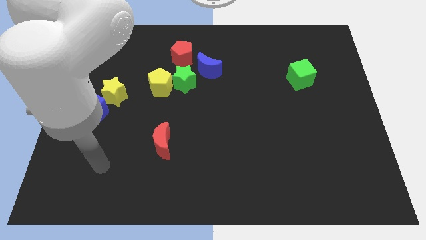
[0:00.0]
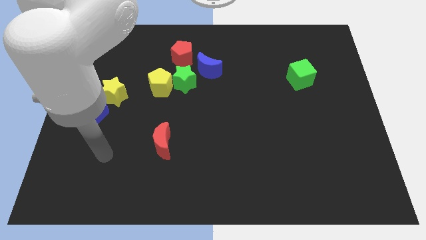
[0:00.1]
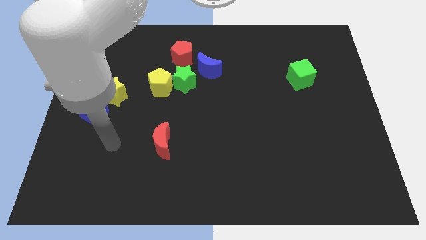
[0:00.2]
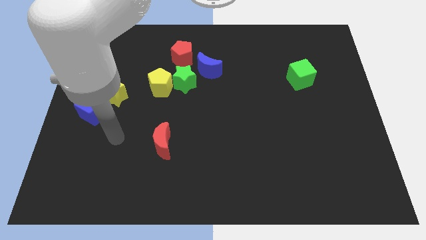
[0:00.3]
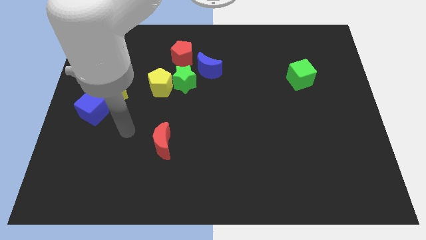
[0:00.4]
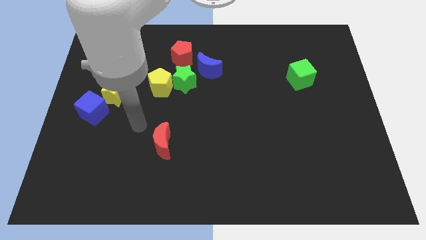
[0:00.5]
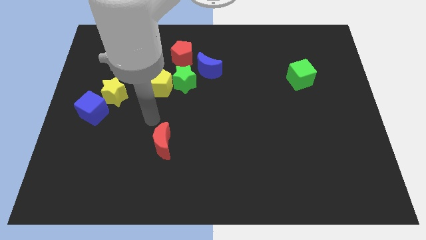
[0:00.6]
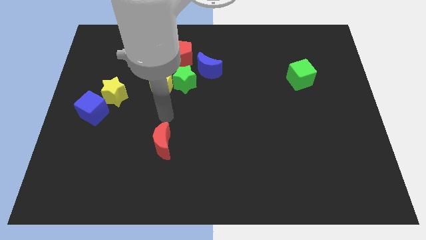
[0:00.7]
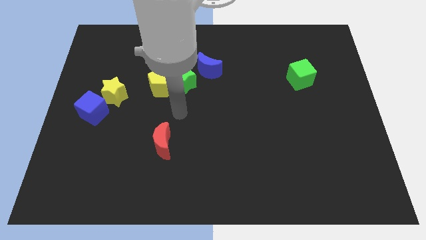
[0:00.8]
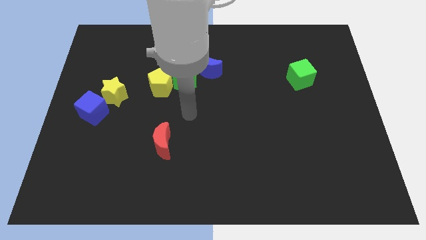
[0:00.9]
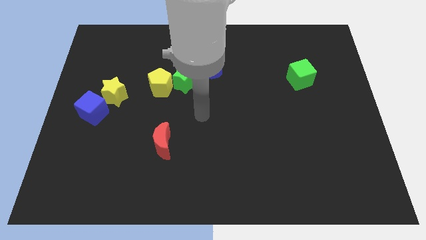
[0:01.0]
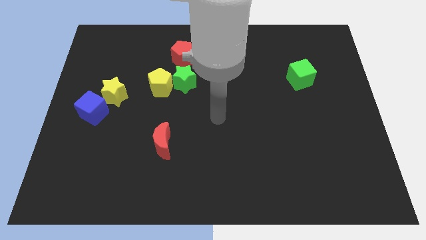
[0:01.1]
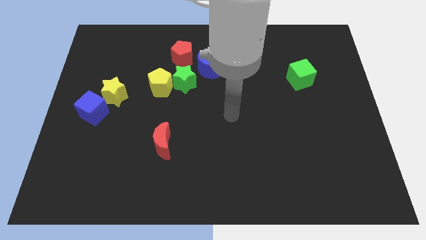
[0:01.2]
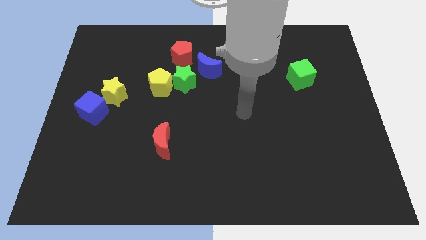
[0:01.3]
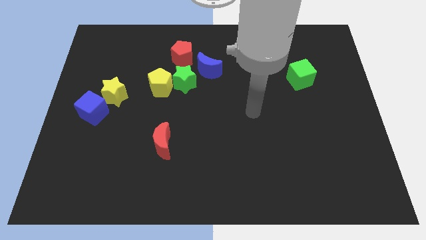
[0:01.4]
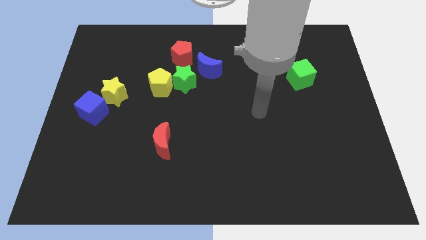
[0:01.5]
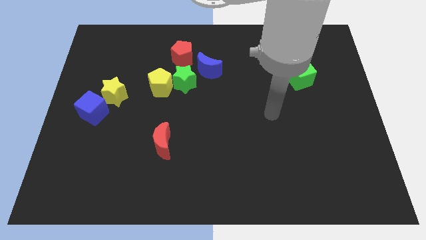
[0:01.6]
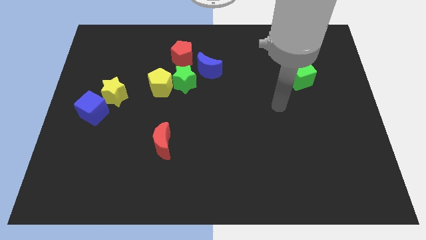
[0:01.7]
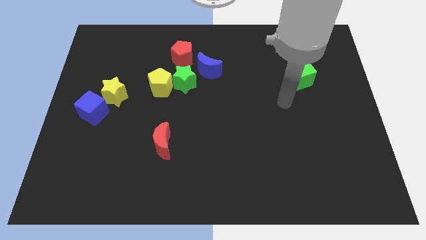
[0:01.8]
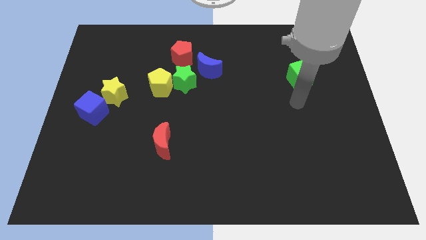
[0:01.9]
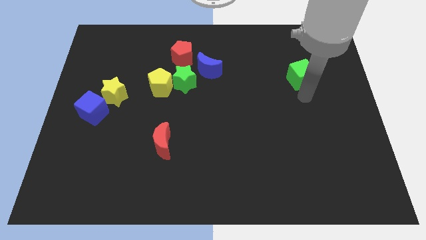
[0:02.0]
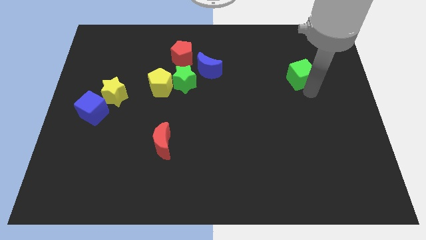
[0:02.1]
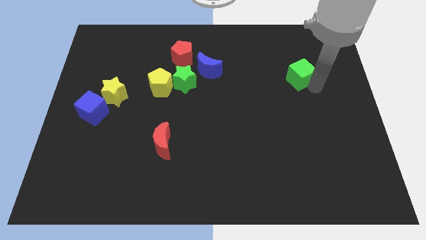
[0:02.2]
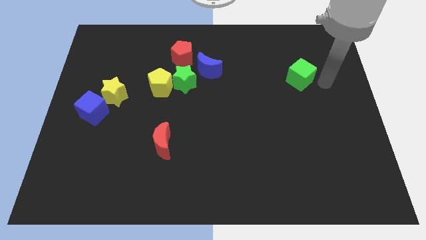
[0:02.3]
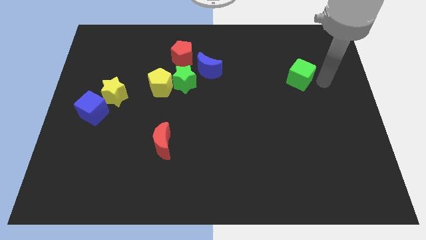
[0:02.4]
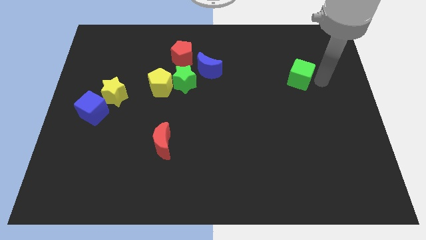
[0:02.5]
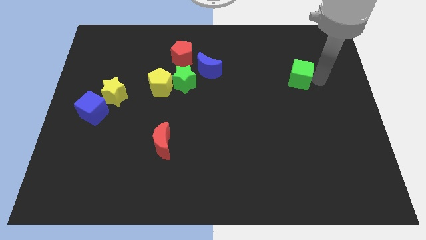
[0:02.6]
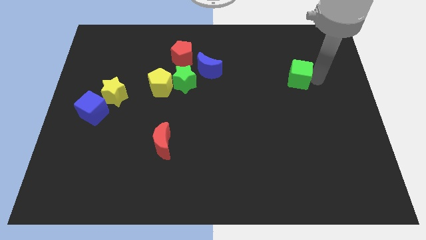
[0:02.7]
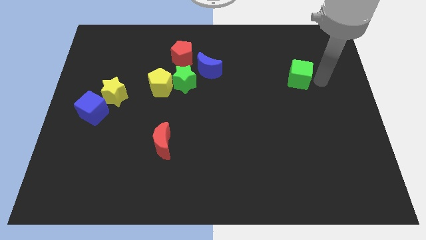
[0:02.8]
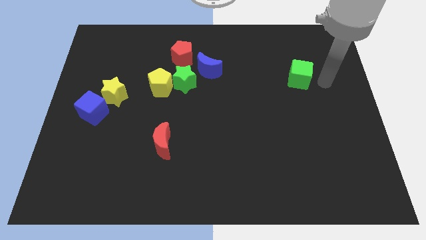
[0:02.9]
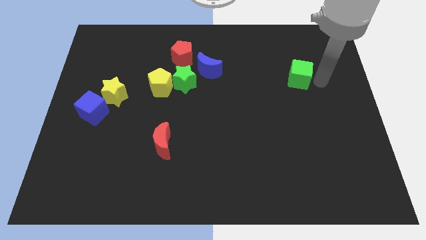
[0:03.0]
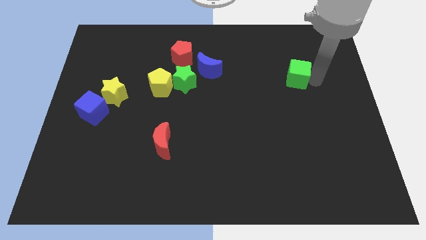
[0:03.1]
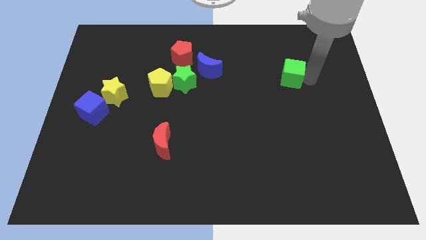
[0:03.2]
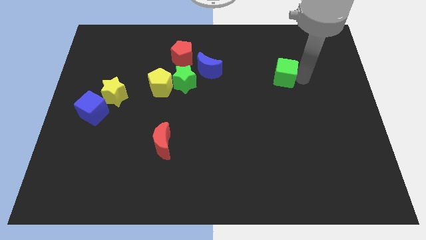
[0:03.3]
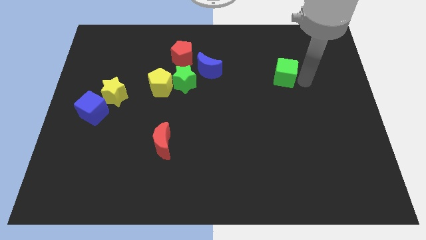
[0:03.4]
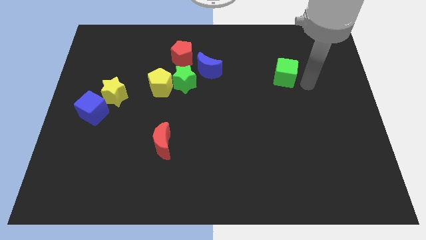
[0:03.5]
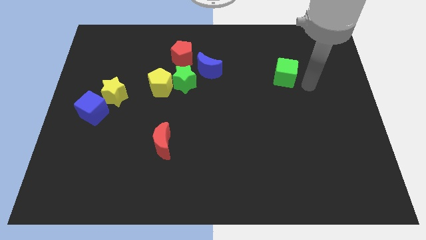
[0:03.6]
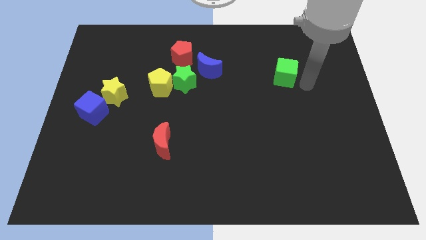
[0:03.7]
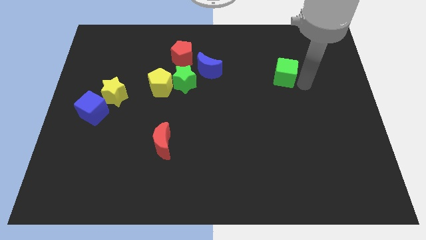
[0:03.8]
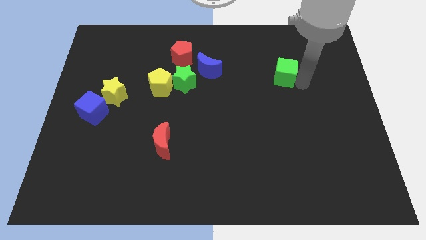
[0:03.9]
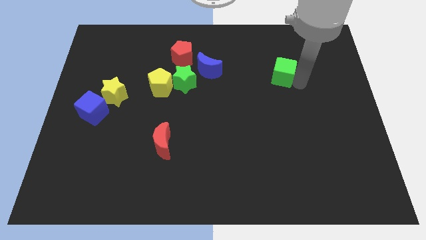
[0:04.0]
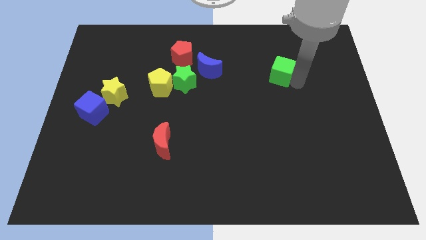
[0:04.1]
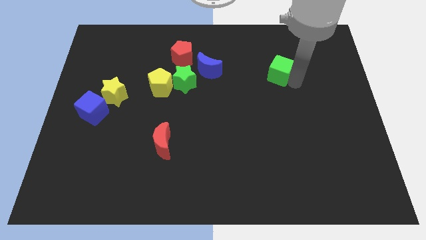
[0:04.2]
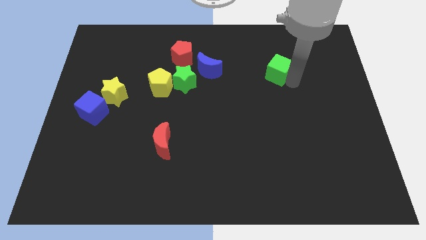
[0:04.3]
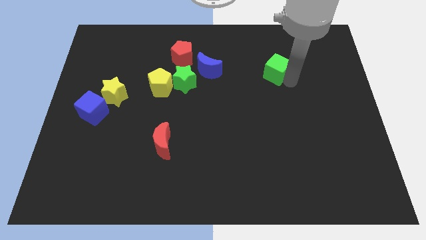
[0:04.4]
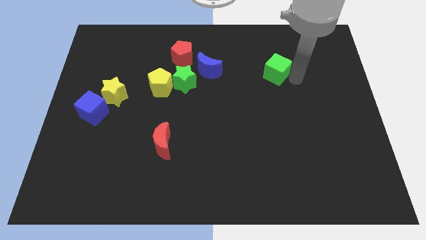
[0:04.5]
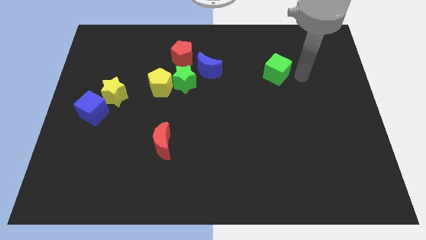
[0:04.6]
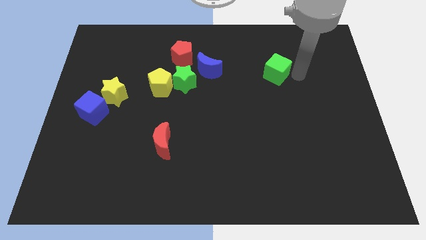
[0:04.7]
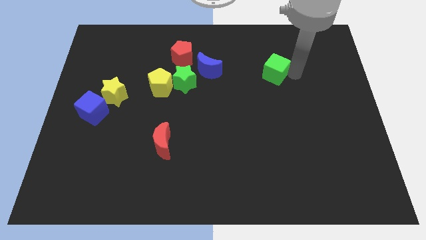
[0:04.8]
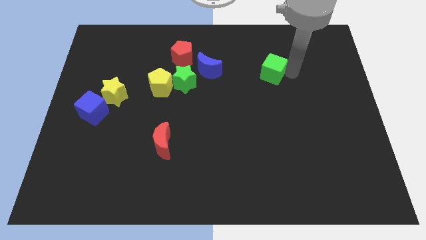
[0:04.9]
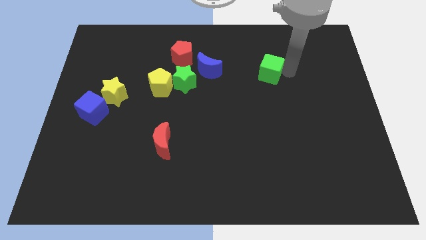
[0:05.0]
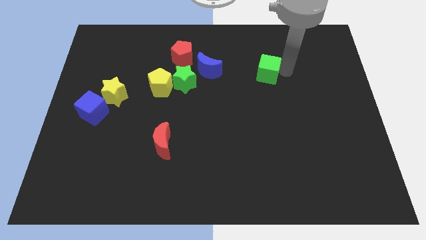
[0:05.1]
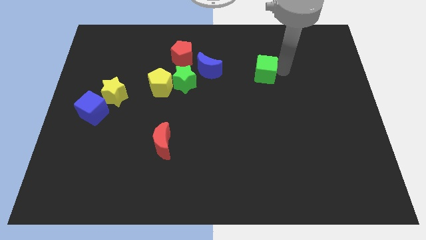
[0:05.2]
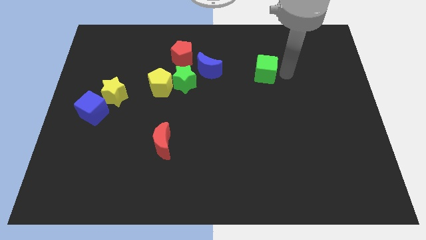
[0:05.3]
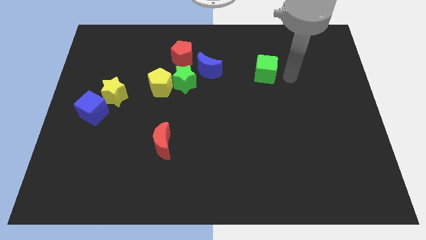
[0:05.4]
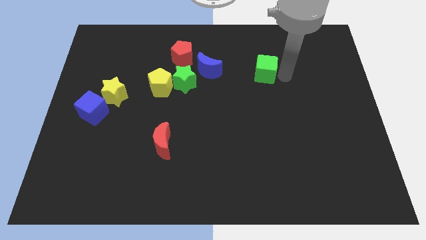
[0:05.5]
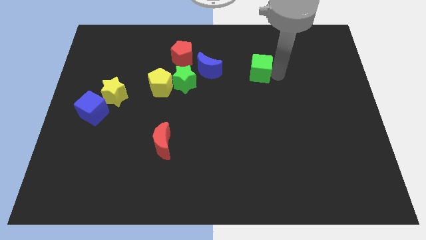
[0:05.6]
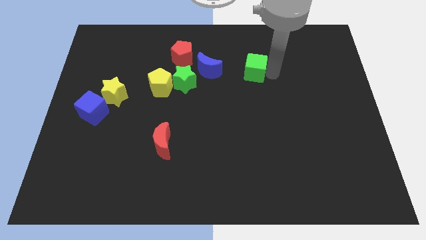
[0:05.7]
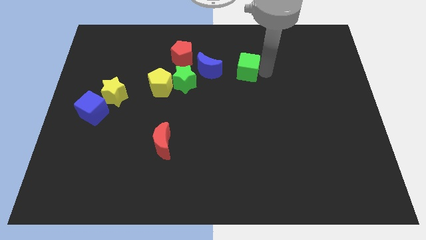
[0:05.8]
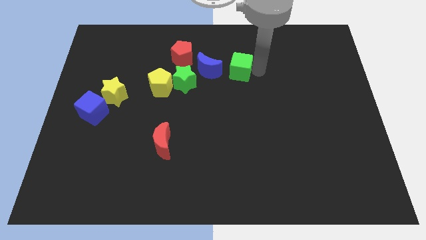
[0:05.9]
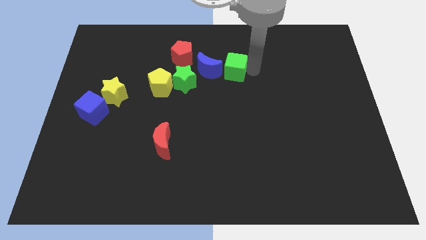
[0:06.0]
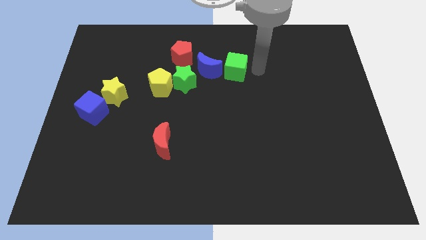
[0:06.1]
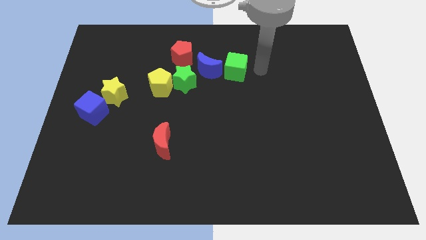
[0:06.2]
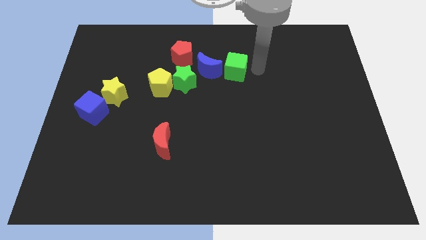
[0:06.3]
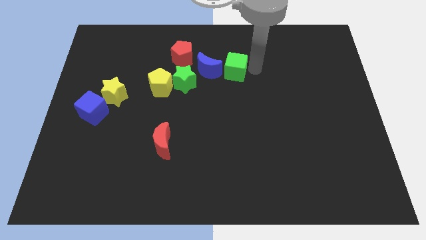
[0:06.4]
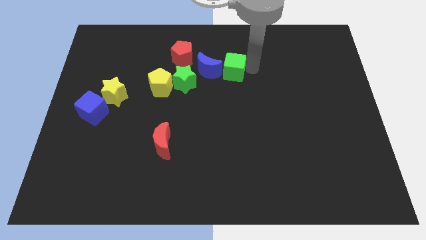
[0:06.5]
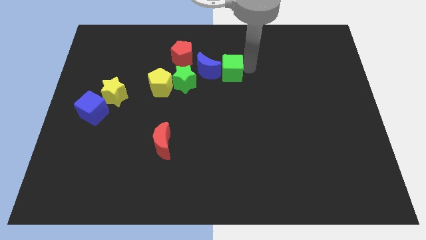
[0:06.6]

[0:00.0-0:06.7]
put the green cube towards the blue moon
